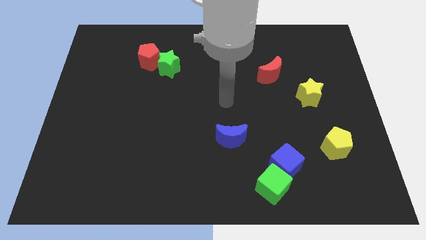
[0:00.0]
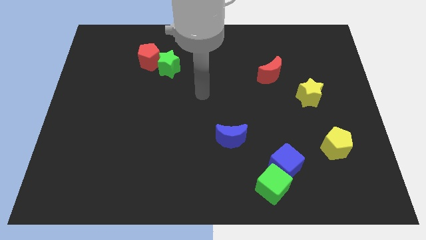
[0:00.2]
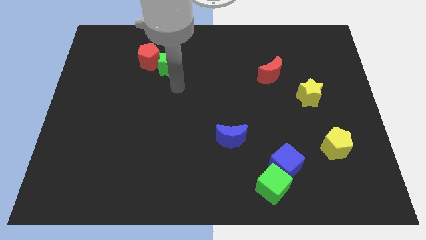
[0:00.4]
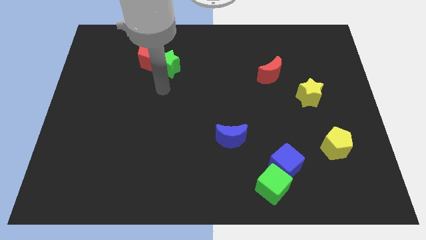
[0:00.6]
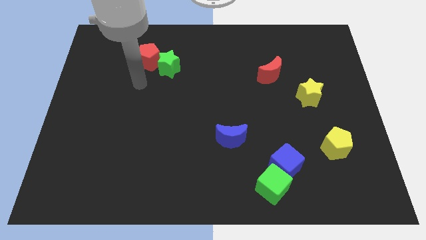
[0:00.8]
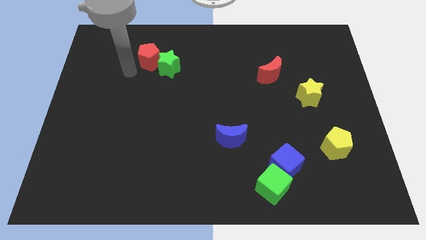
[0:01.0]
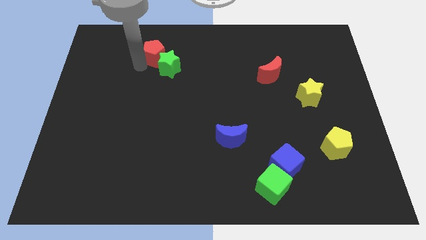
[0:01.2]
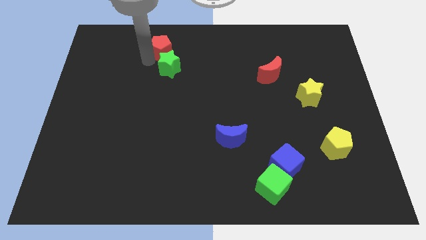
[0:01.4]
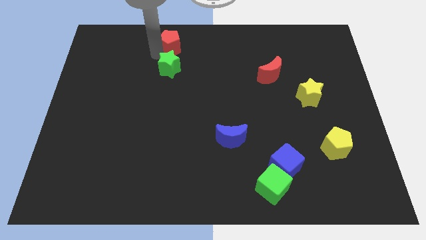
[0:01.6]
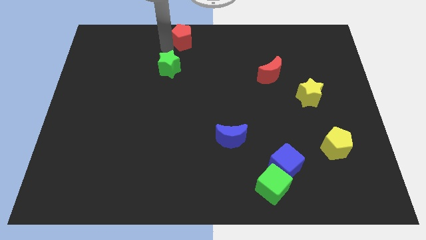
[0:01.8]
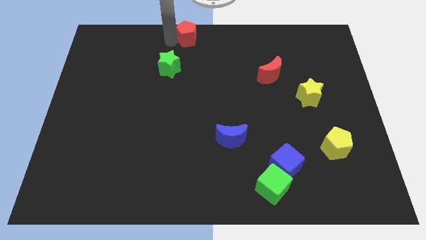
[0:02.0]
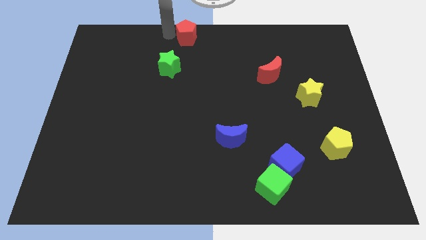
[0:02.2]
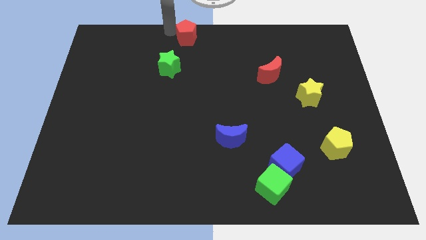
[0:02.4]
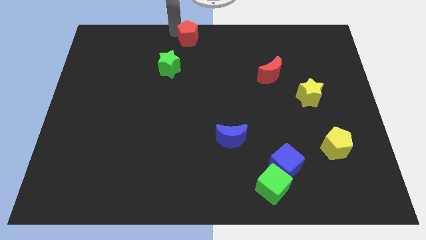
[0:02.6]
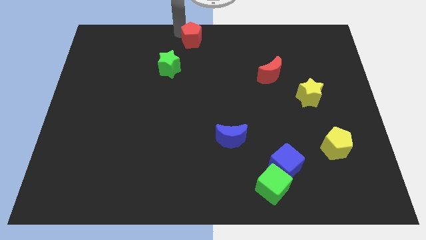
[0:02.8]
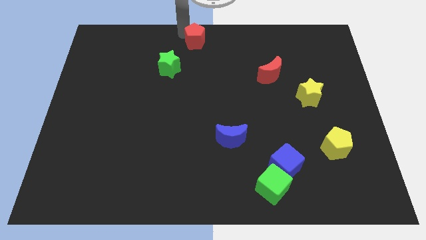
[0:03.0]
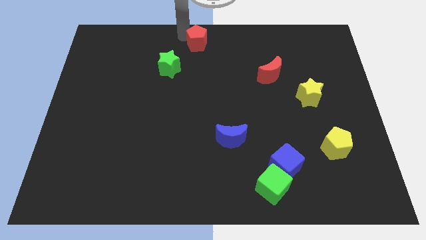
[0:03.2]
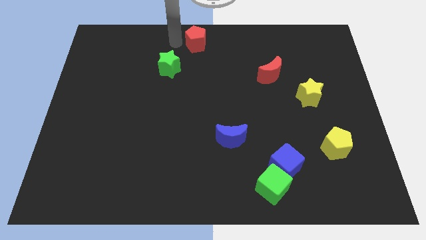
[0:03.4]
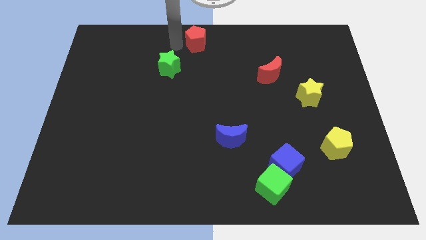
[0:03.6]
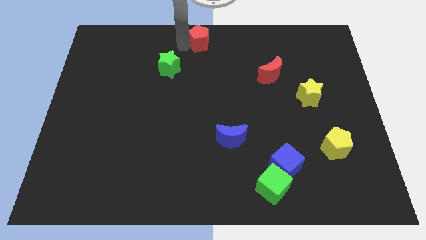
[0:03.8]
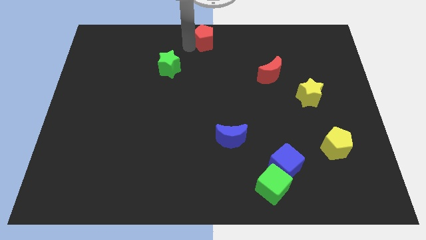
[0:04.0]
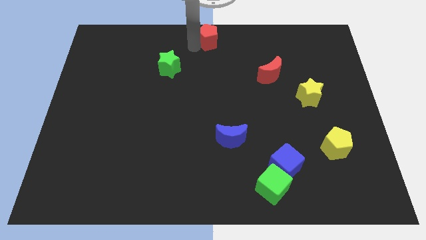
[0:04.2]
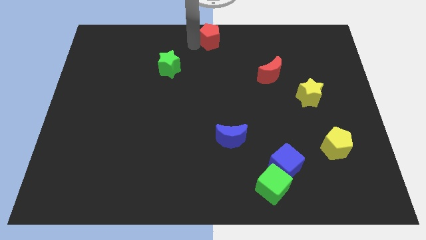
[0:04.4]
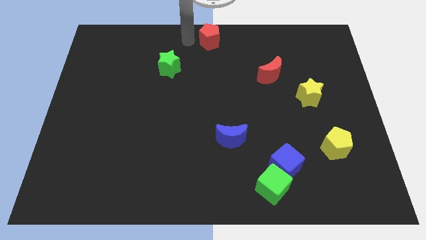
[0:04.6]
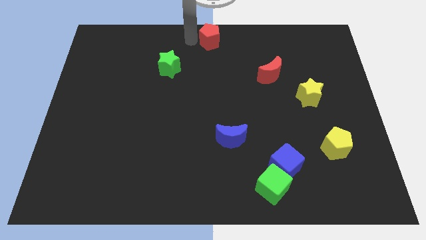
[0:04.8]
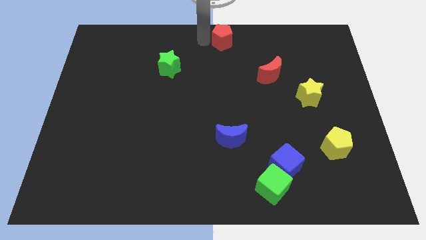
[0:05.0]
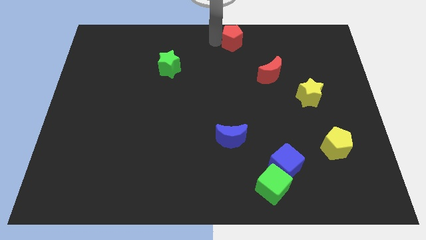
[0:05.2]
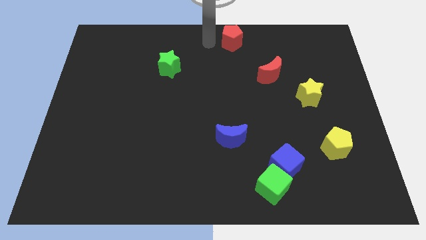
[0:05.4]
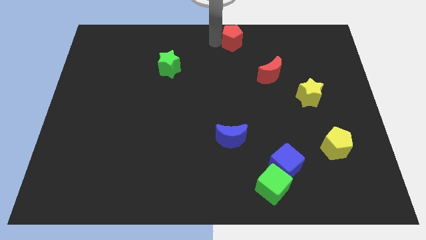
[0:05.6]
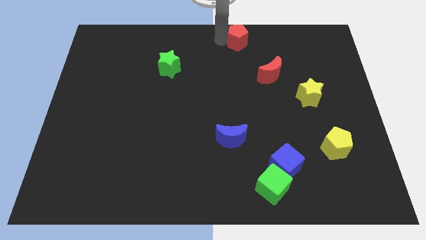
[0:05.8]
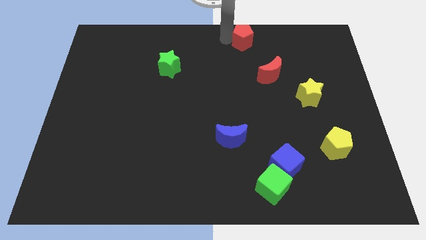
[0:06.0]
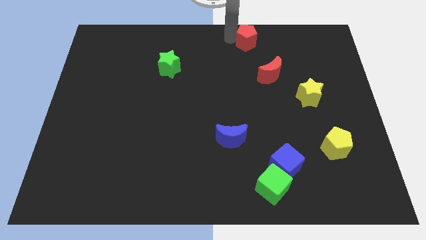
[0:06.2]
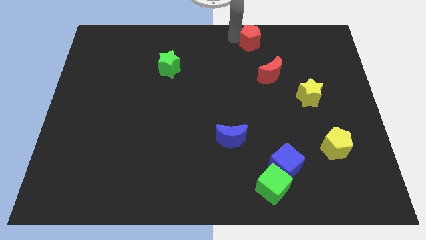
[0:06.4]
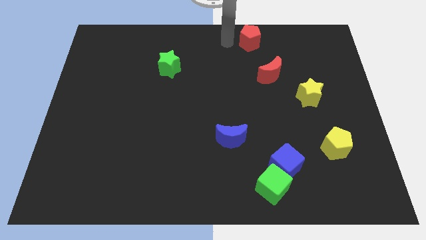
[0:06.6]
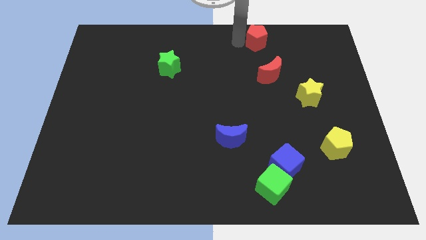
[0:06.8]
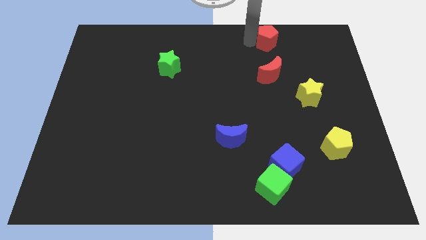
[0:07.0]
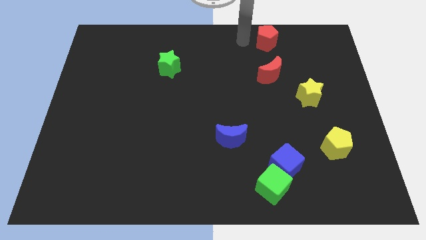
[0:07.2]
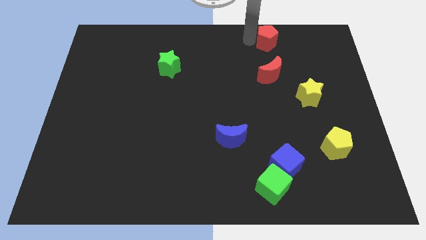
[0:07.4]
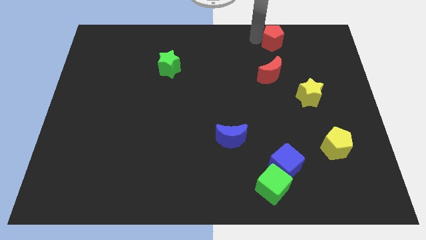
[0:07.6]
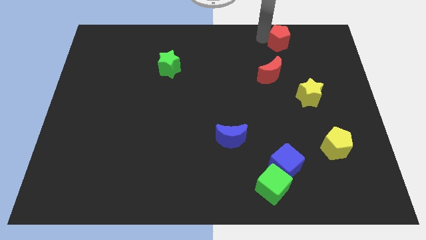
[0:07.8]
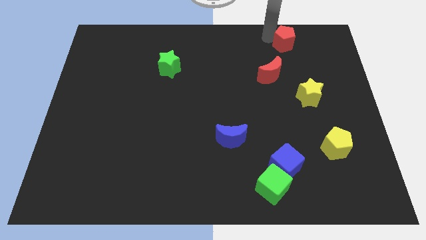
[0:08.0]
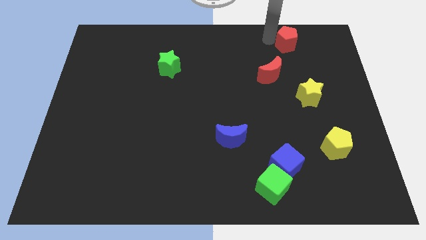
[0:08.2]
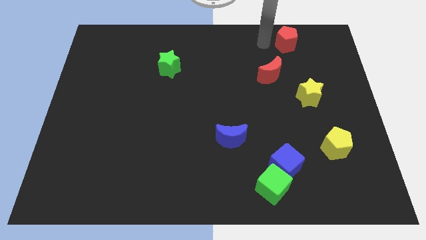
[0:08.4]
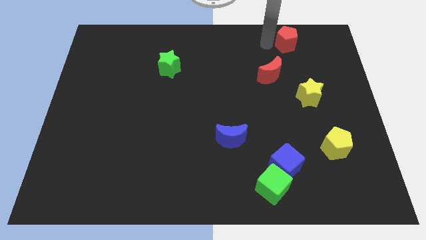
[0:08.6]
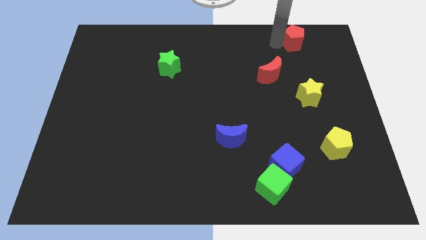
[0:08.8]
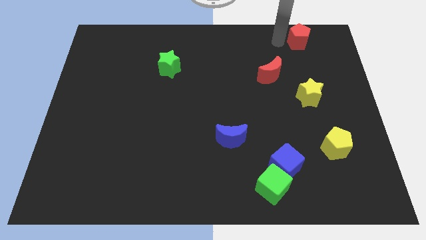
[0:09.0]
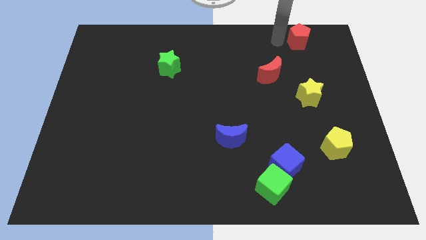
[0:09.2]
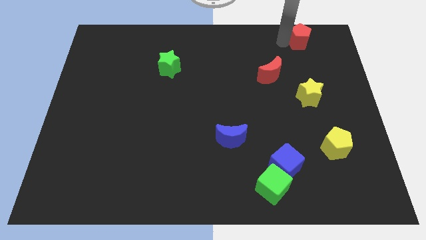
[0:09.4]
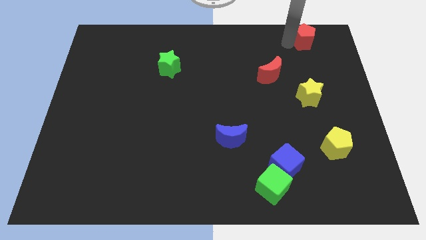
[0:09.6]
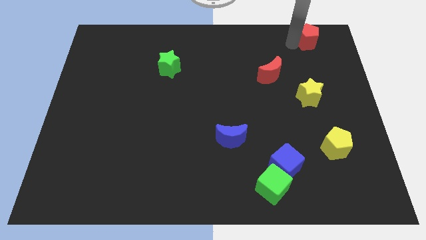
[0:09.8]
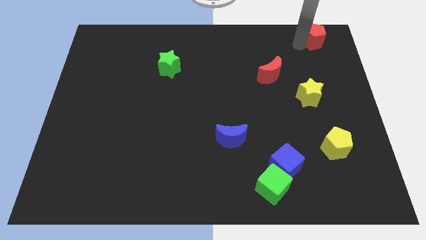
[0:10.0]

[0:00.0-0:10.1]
slide the red pentagon to the top right of the board

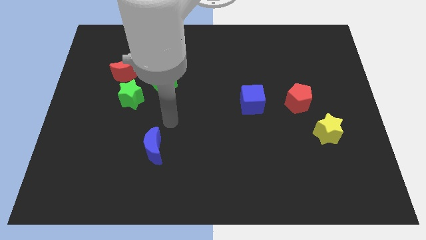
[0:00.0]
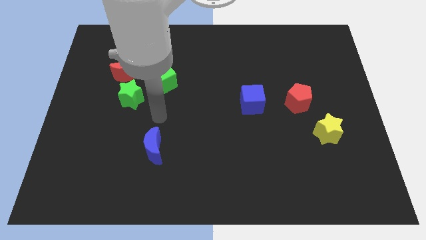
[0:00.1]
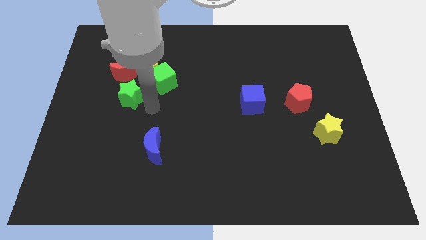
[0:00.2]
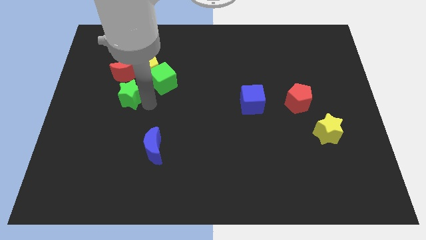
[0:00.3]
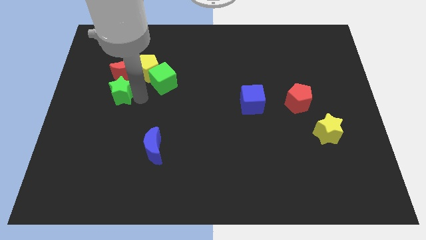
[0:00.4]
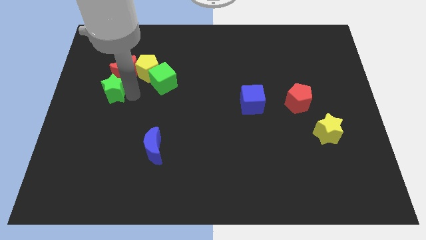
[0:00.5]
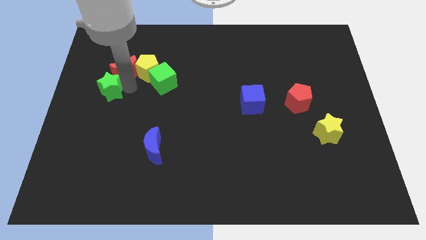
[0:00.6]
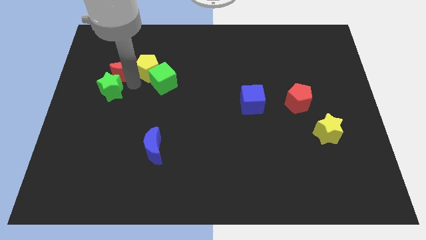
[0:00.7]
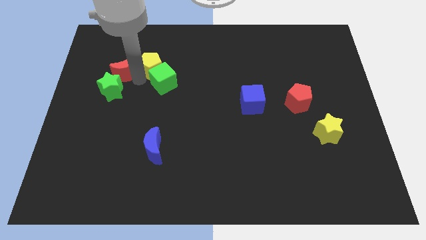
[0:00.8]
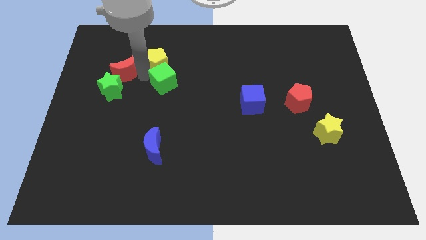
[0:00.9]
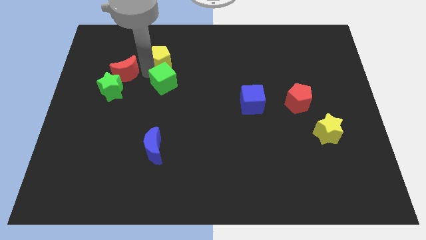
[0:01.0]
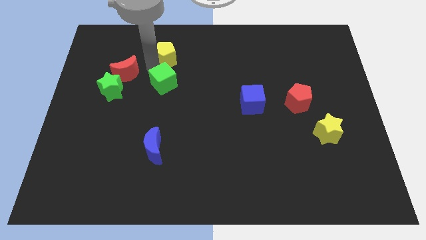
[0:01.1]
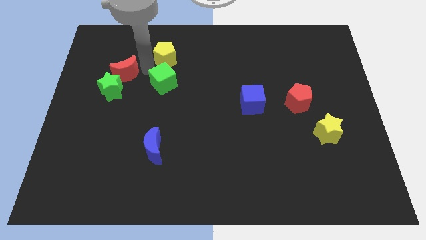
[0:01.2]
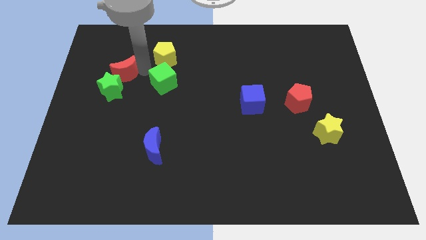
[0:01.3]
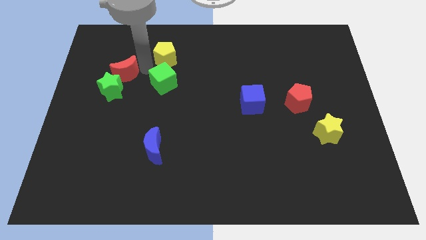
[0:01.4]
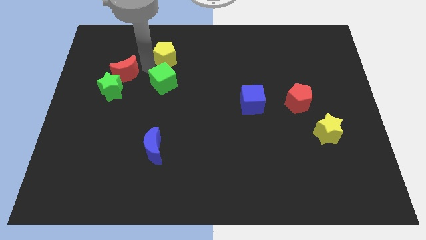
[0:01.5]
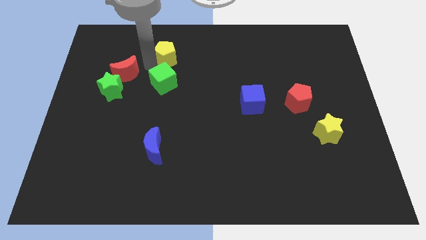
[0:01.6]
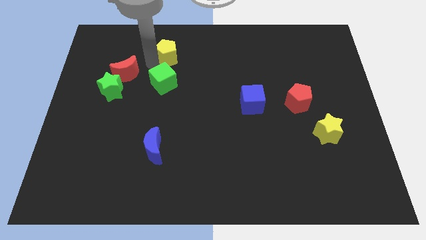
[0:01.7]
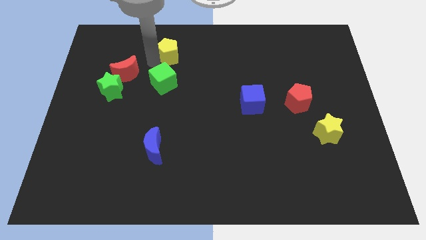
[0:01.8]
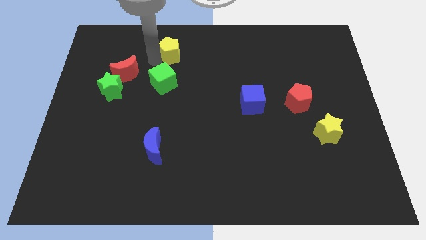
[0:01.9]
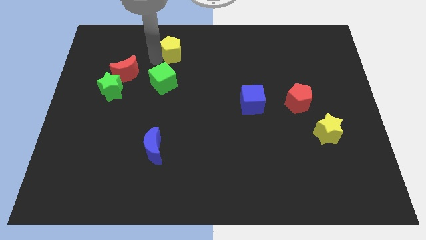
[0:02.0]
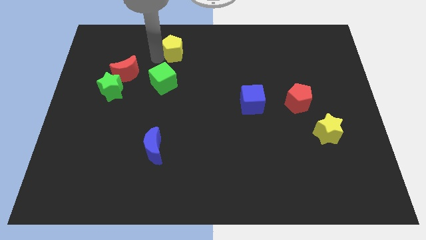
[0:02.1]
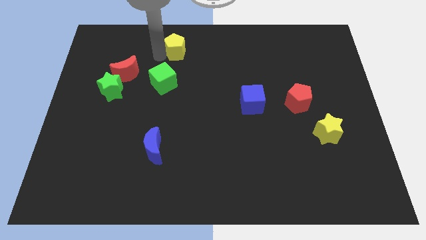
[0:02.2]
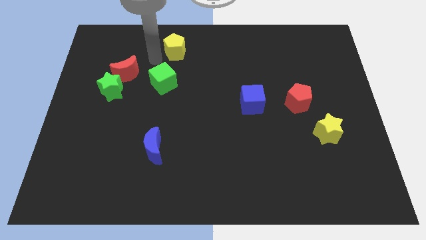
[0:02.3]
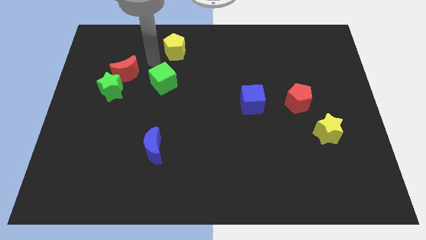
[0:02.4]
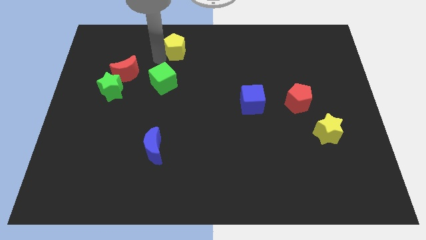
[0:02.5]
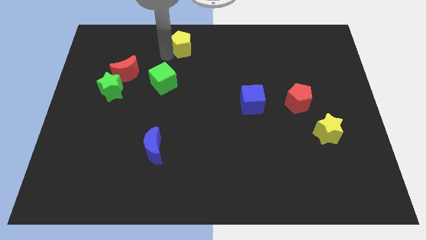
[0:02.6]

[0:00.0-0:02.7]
slide the yellow pentagon to the top side
